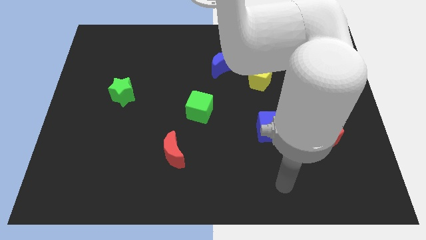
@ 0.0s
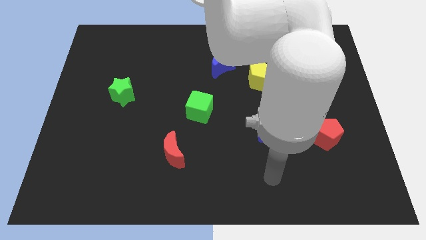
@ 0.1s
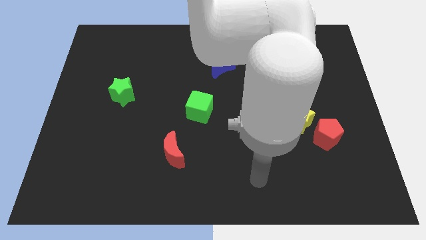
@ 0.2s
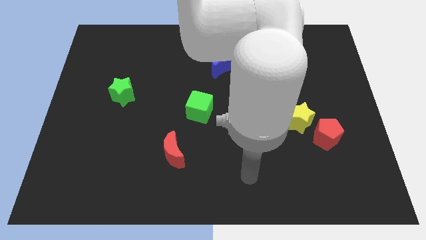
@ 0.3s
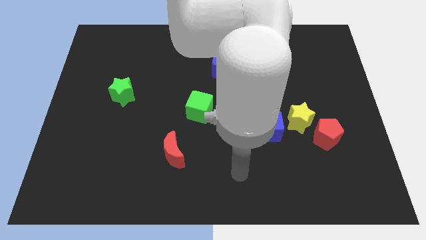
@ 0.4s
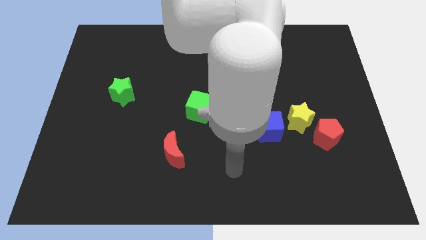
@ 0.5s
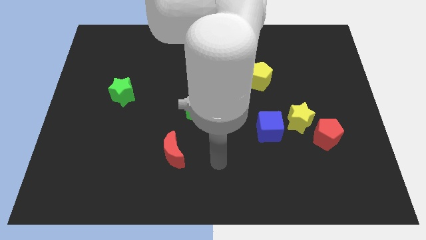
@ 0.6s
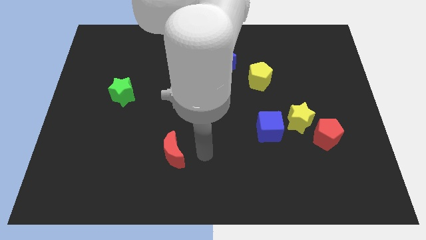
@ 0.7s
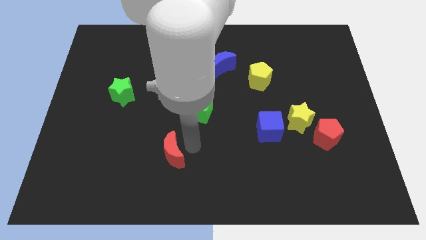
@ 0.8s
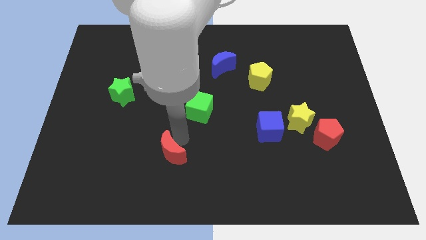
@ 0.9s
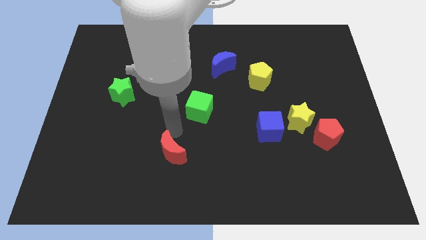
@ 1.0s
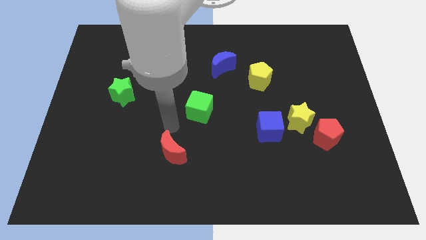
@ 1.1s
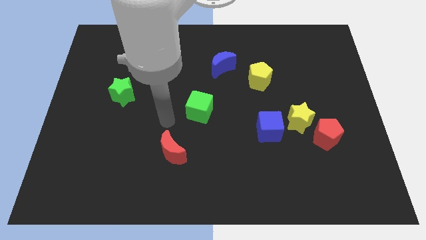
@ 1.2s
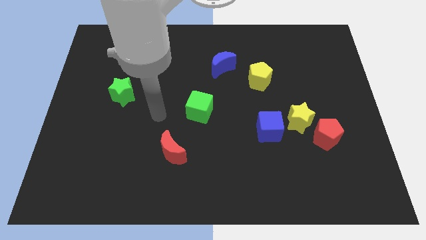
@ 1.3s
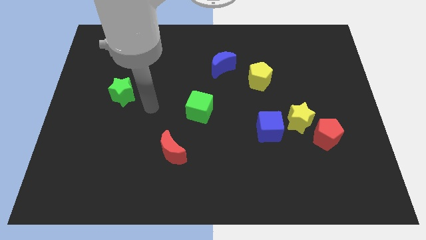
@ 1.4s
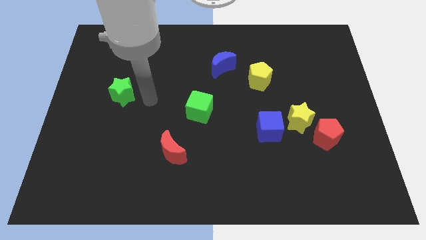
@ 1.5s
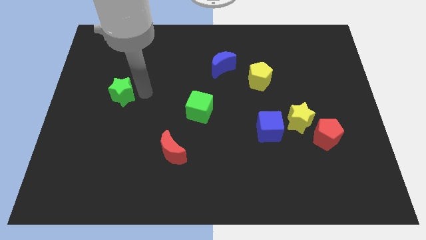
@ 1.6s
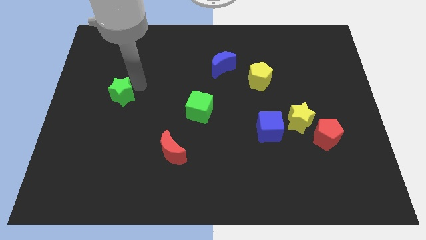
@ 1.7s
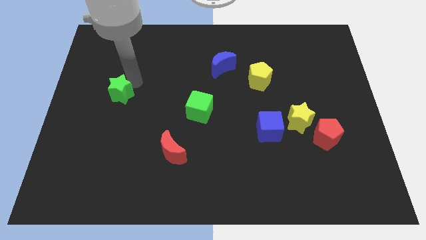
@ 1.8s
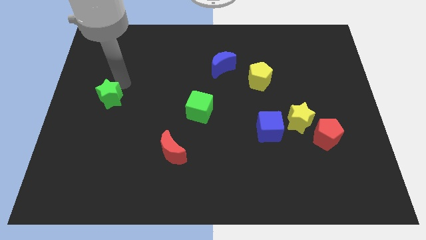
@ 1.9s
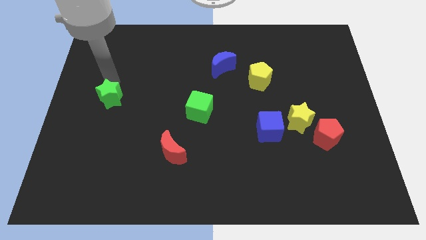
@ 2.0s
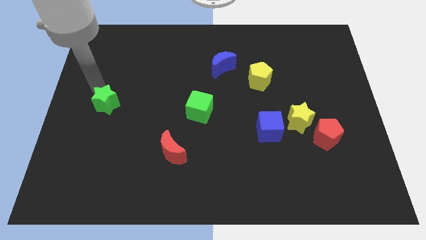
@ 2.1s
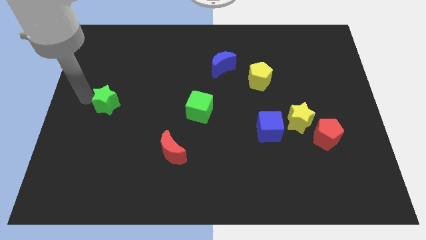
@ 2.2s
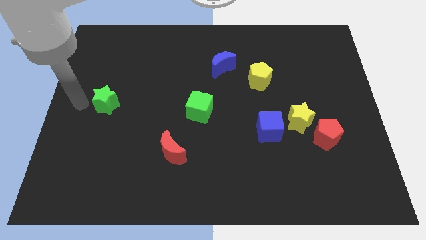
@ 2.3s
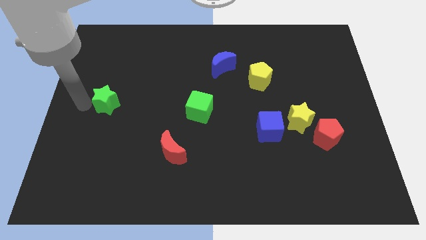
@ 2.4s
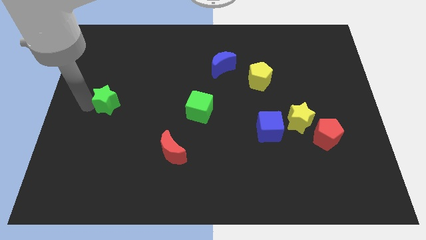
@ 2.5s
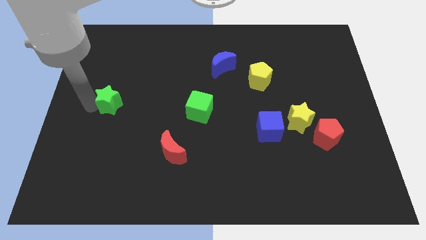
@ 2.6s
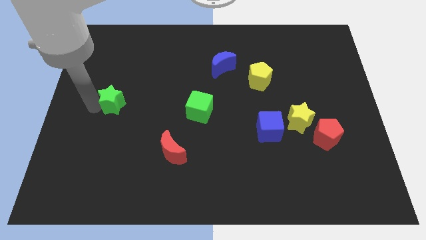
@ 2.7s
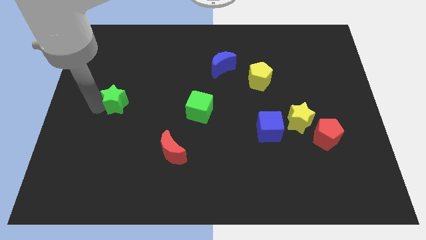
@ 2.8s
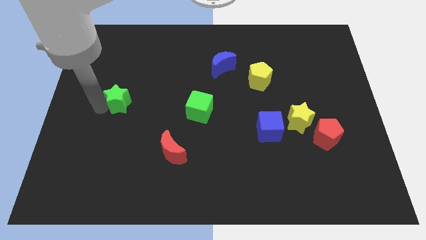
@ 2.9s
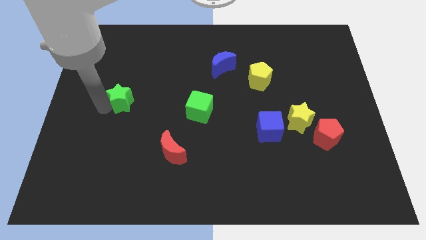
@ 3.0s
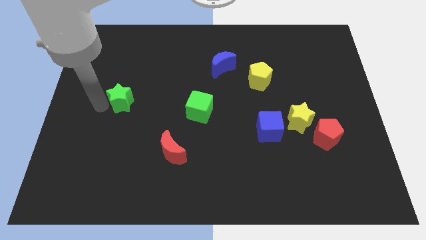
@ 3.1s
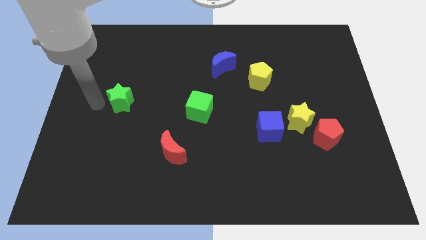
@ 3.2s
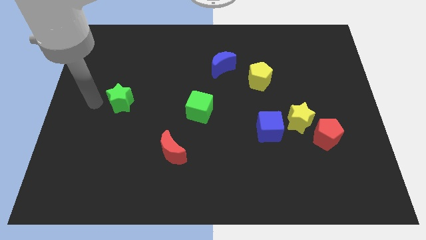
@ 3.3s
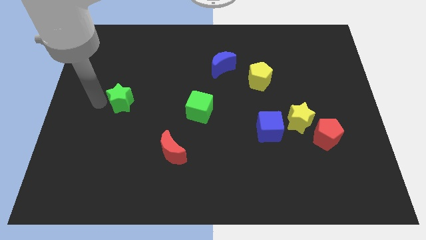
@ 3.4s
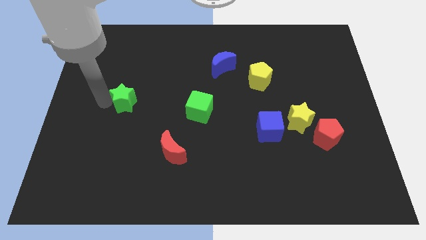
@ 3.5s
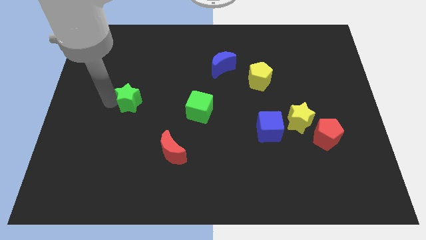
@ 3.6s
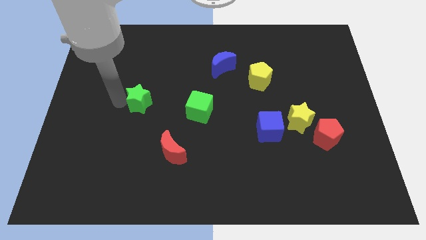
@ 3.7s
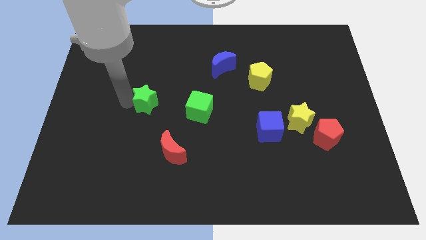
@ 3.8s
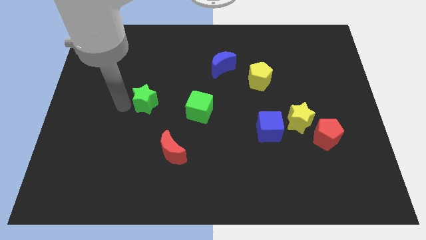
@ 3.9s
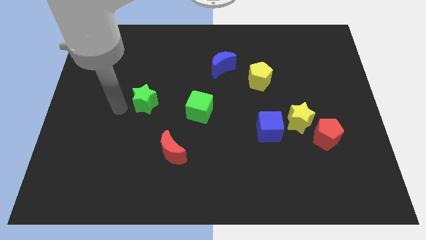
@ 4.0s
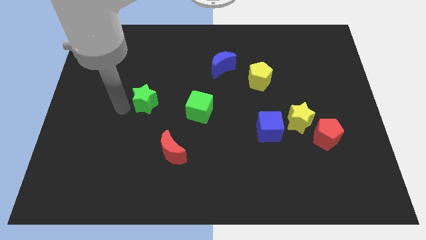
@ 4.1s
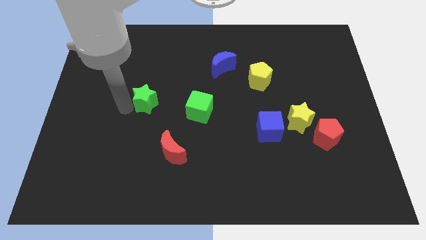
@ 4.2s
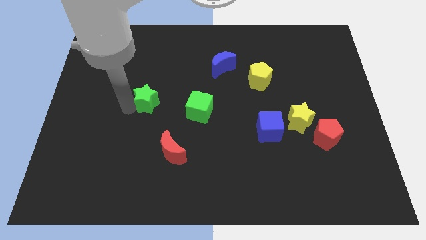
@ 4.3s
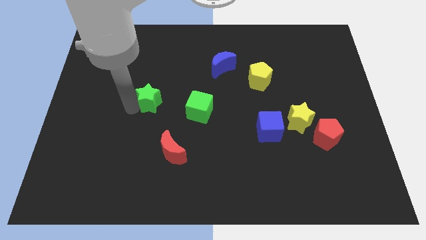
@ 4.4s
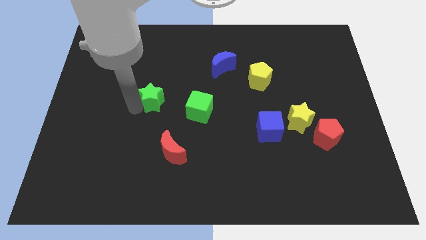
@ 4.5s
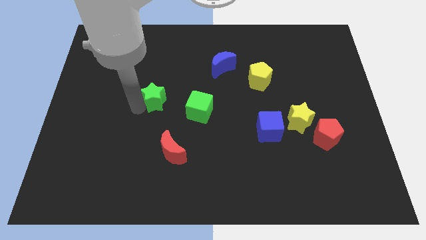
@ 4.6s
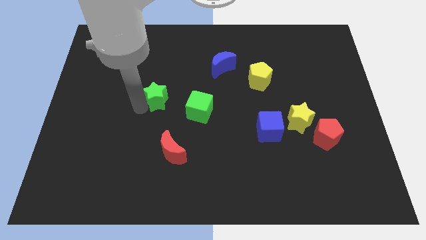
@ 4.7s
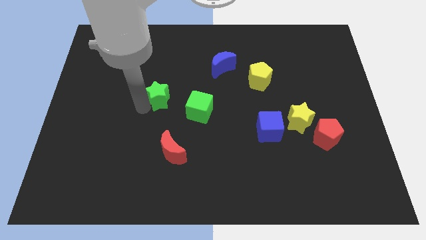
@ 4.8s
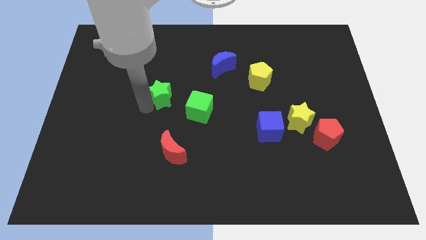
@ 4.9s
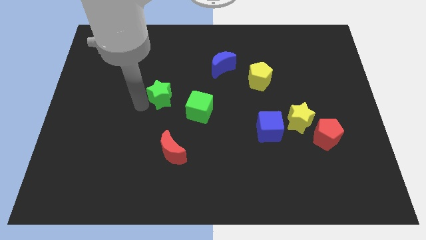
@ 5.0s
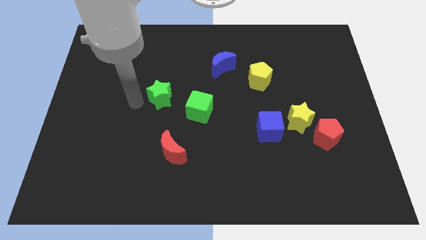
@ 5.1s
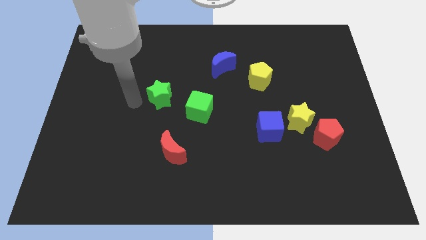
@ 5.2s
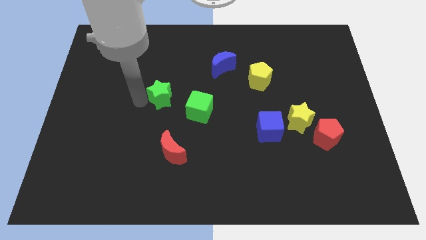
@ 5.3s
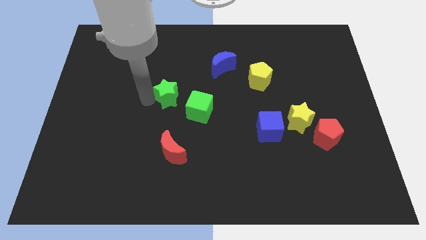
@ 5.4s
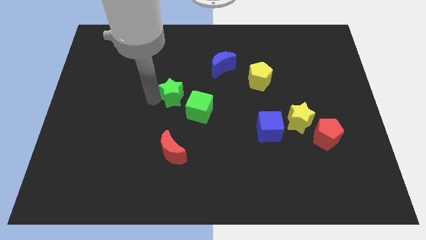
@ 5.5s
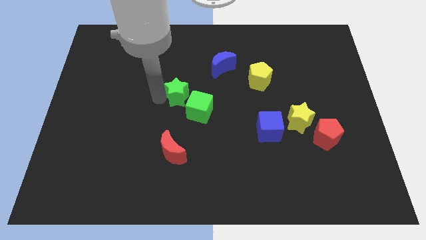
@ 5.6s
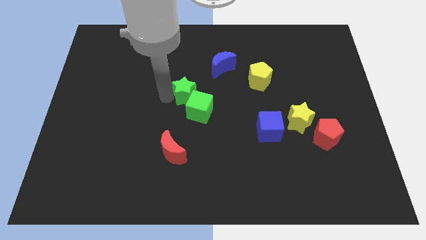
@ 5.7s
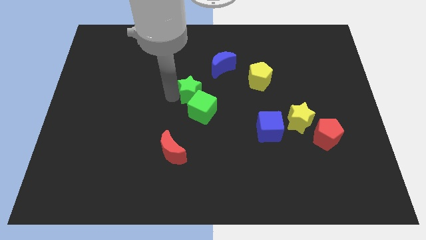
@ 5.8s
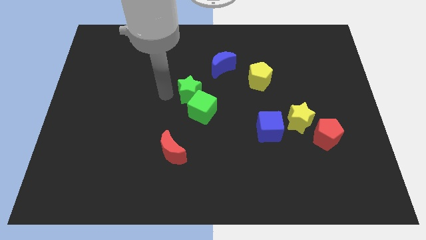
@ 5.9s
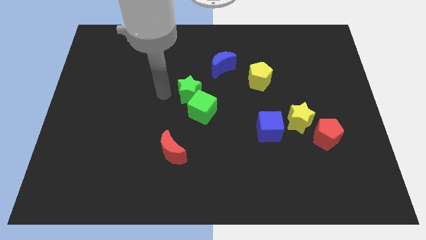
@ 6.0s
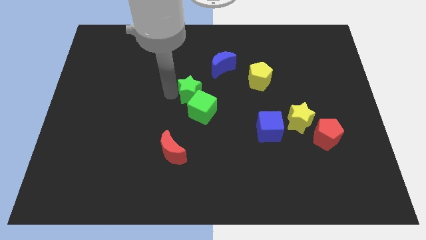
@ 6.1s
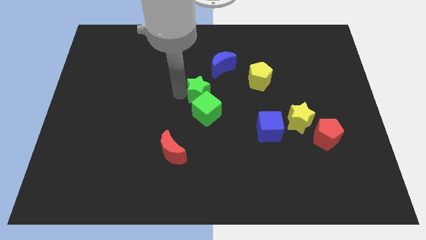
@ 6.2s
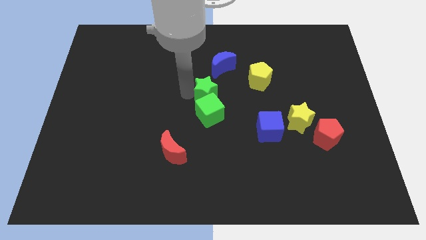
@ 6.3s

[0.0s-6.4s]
push the green star right

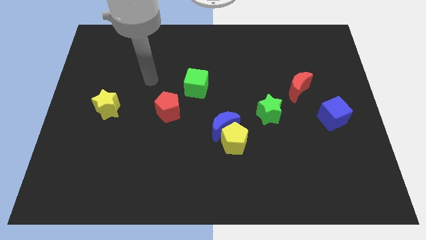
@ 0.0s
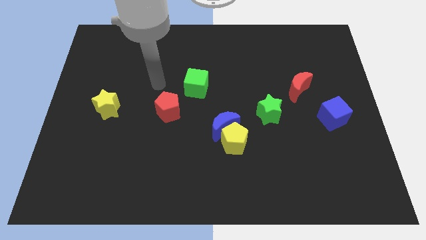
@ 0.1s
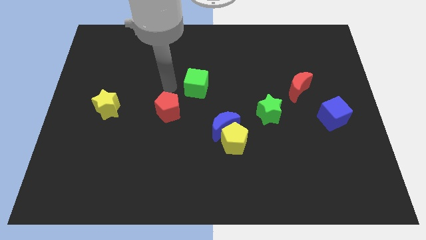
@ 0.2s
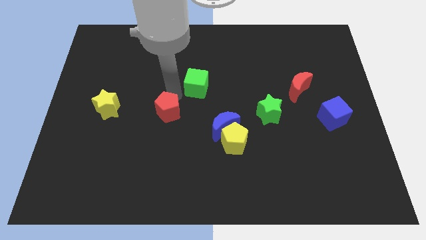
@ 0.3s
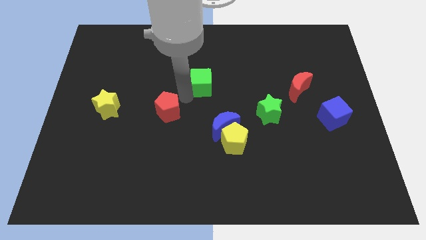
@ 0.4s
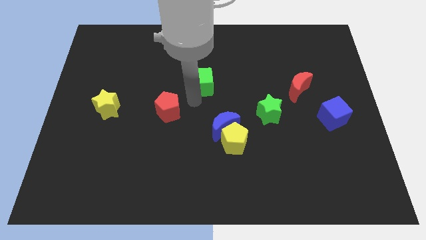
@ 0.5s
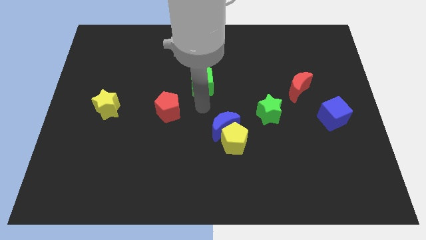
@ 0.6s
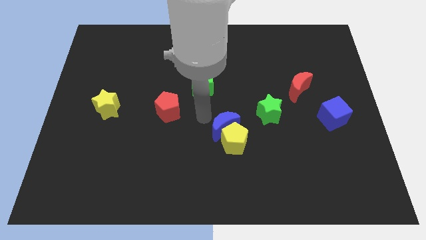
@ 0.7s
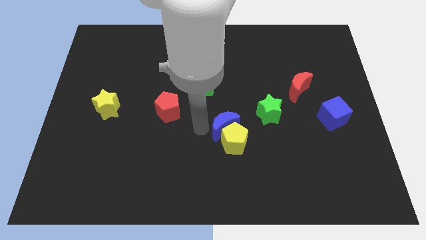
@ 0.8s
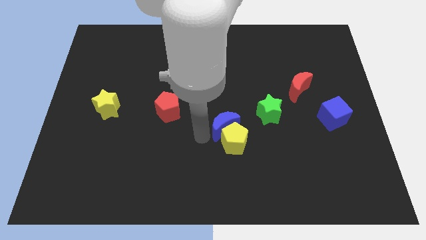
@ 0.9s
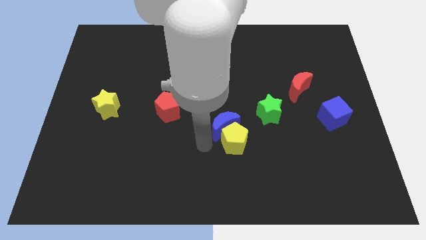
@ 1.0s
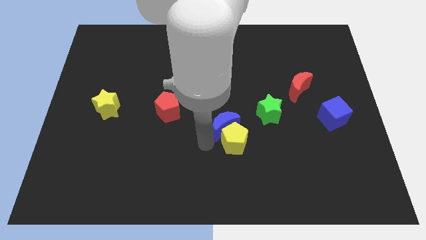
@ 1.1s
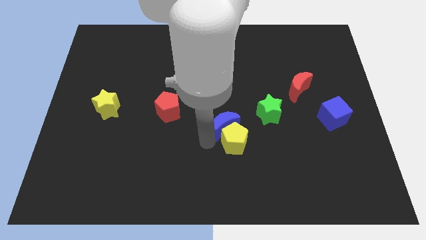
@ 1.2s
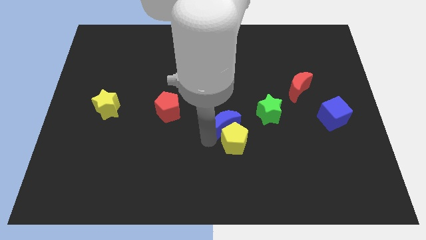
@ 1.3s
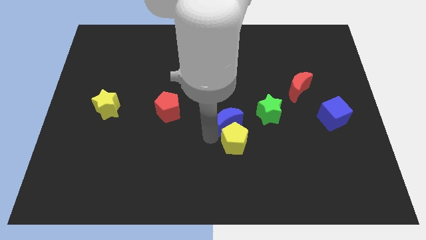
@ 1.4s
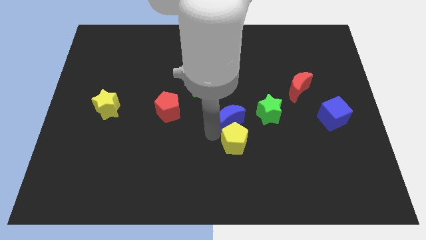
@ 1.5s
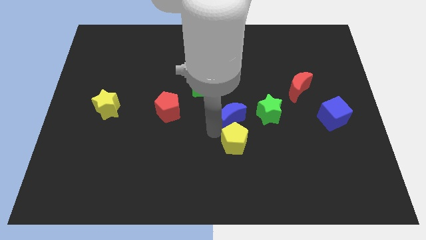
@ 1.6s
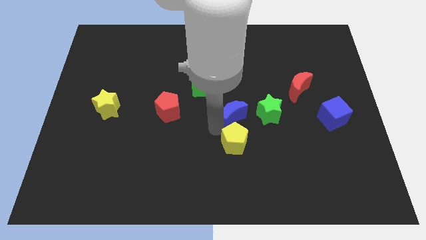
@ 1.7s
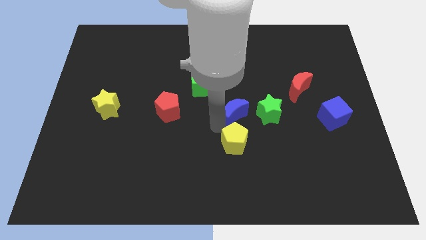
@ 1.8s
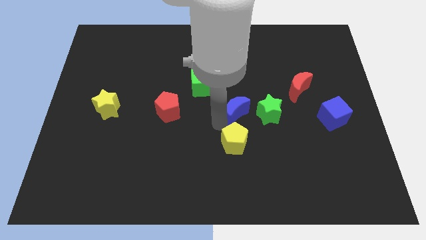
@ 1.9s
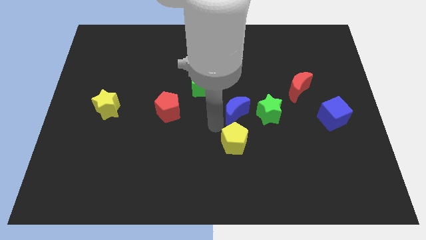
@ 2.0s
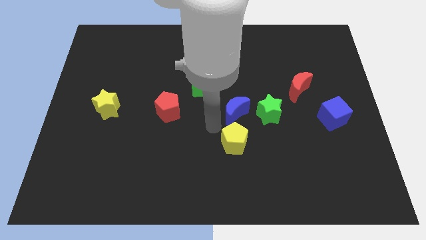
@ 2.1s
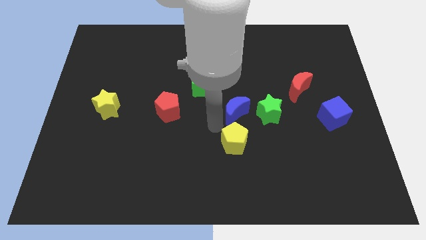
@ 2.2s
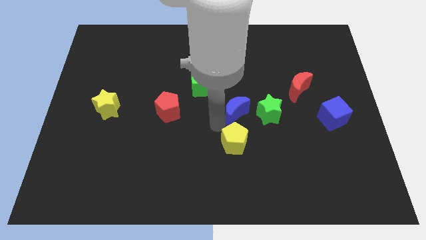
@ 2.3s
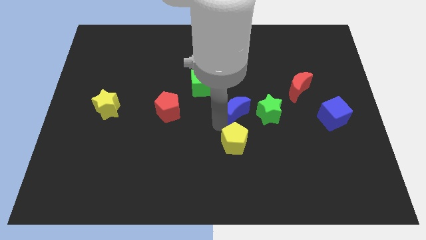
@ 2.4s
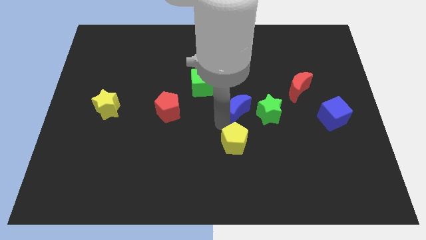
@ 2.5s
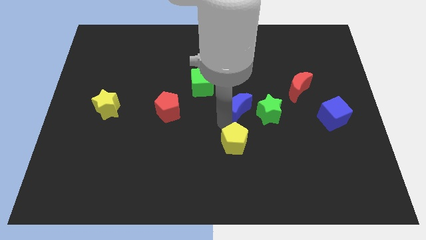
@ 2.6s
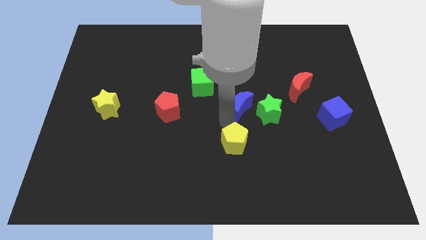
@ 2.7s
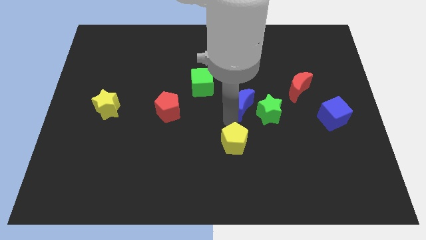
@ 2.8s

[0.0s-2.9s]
slide the blue moon a little bit upwards and right diagonally
